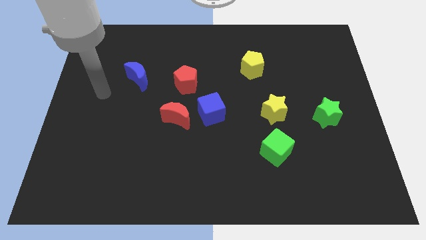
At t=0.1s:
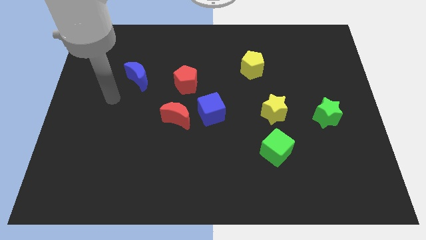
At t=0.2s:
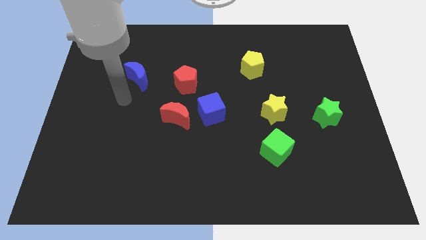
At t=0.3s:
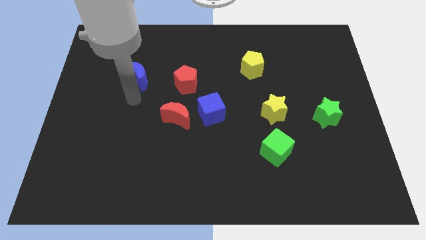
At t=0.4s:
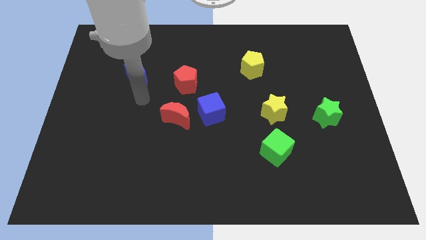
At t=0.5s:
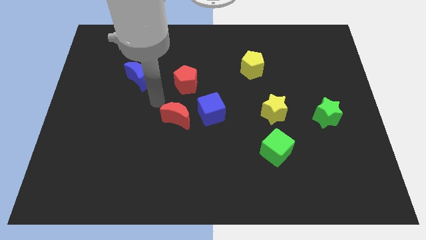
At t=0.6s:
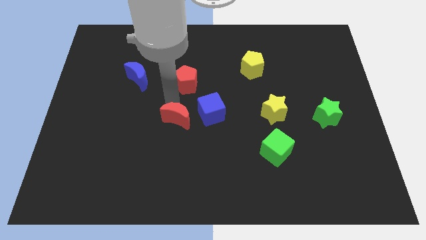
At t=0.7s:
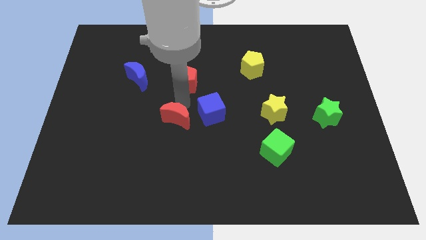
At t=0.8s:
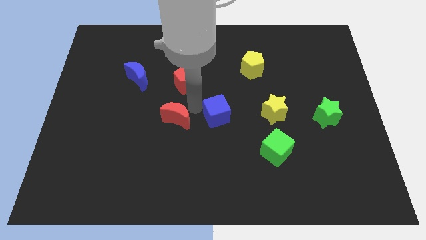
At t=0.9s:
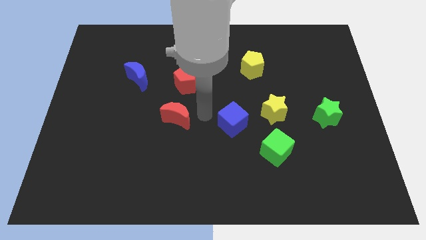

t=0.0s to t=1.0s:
move the red moon away from the blue cube

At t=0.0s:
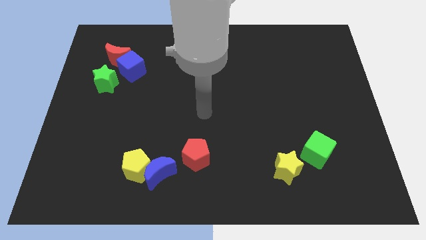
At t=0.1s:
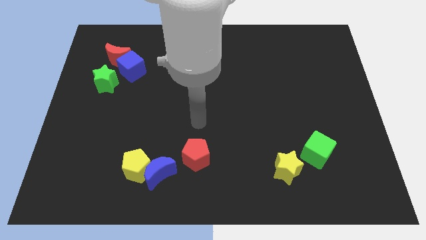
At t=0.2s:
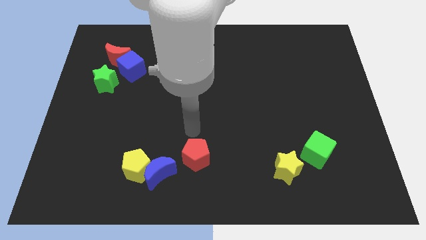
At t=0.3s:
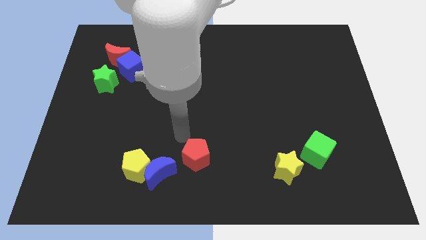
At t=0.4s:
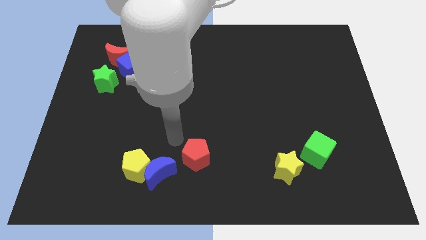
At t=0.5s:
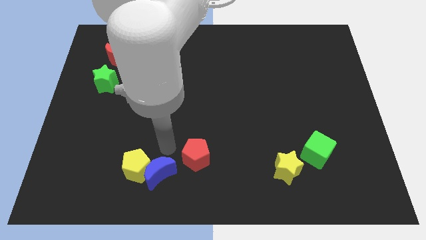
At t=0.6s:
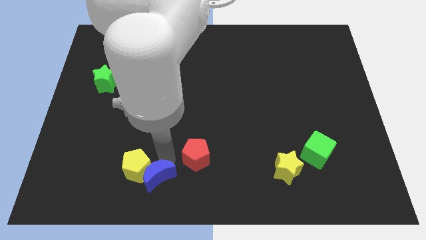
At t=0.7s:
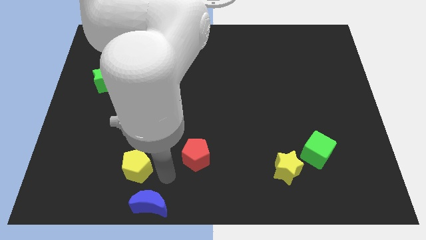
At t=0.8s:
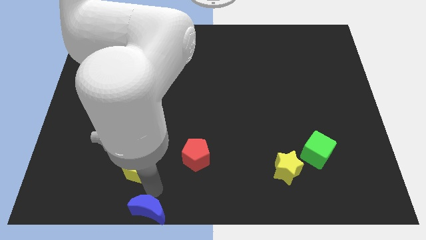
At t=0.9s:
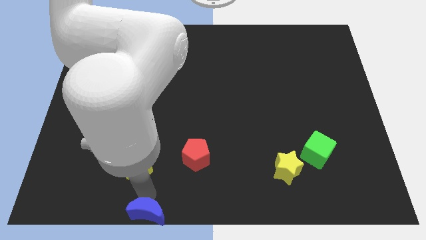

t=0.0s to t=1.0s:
separate the yellow pentagon from the blue moon

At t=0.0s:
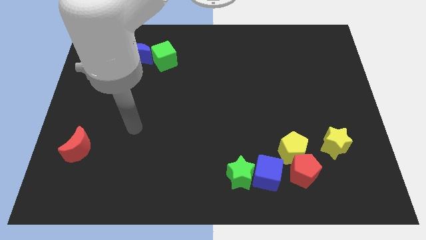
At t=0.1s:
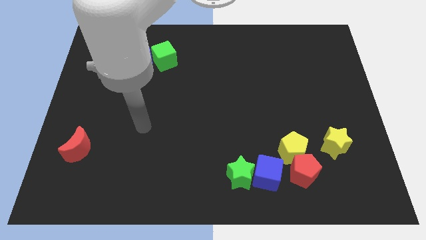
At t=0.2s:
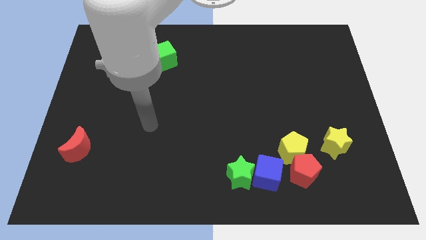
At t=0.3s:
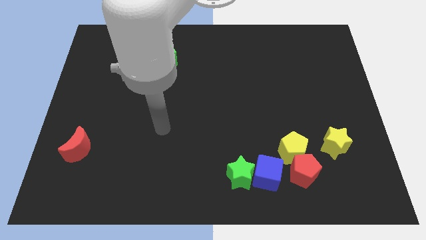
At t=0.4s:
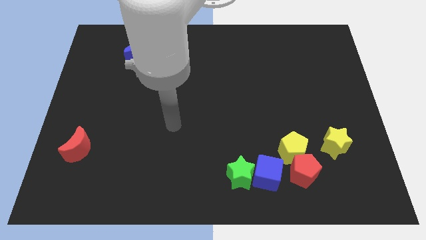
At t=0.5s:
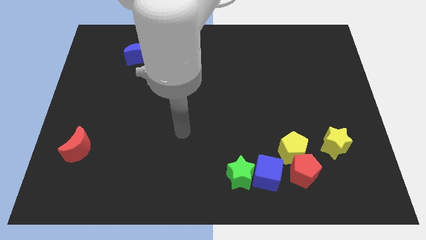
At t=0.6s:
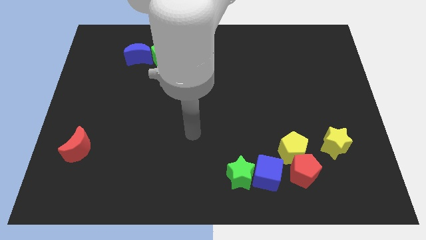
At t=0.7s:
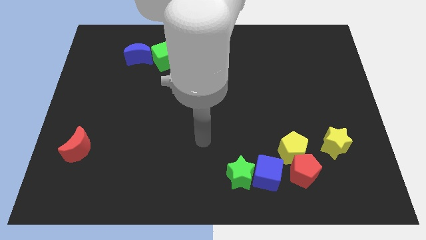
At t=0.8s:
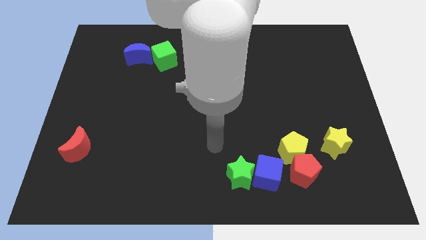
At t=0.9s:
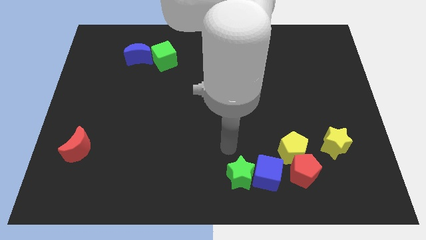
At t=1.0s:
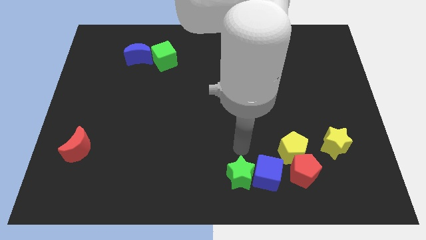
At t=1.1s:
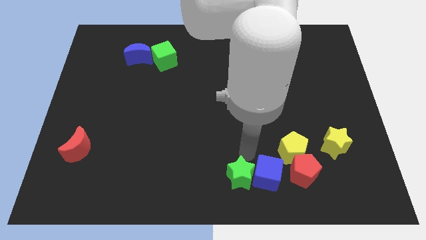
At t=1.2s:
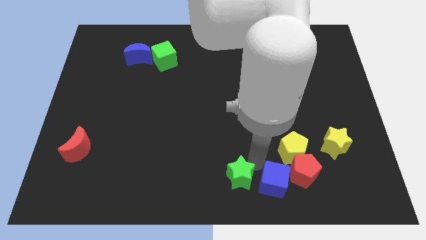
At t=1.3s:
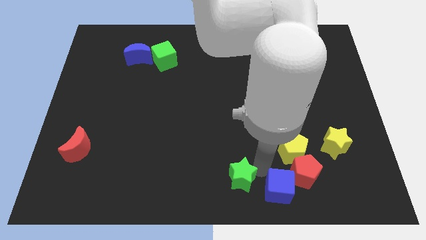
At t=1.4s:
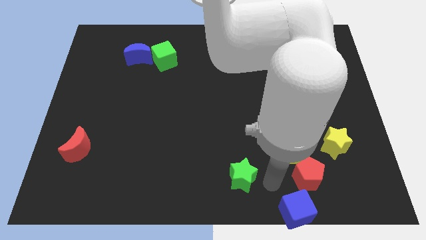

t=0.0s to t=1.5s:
move the green star away from the blue cube

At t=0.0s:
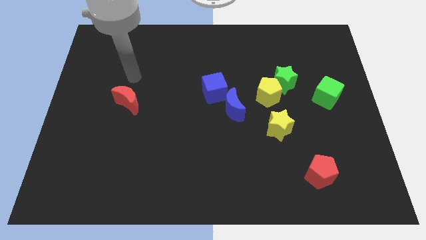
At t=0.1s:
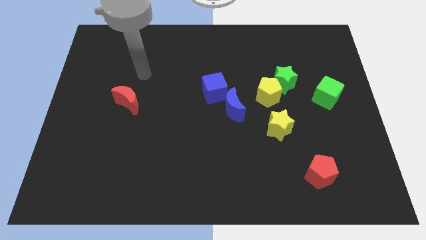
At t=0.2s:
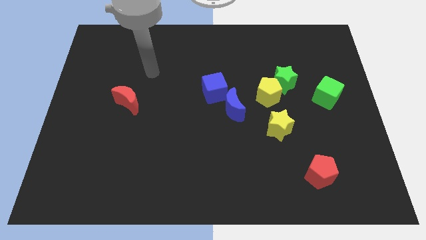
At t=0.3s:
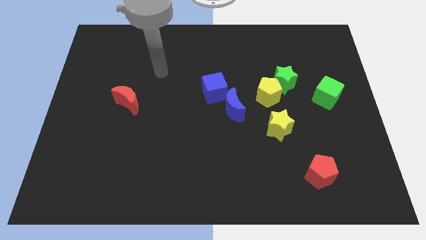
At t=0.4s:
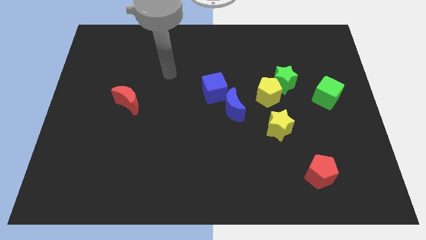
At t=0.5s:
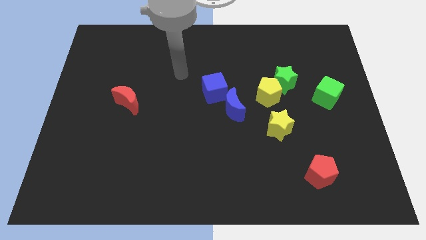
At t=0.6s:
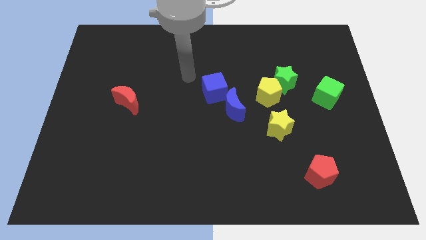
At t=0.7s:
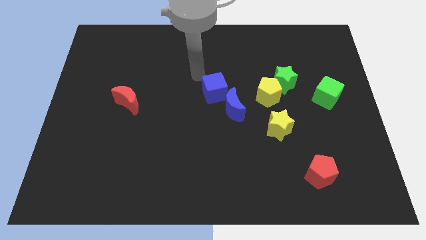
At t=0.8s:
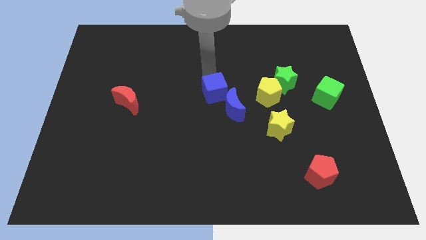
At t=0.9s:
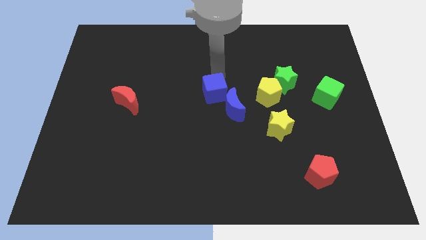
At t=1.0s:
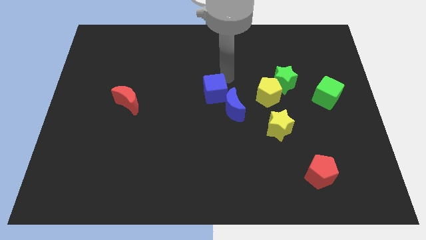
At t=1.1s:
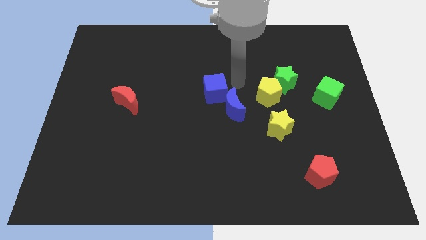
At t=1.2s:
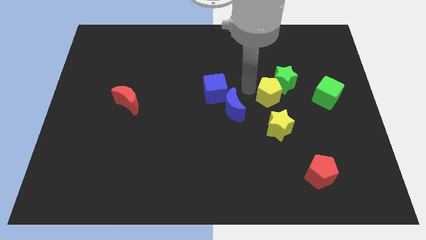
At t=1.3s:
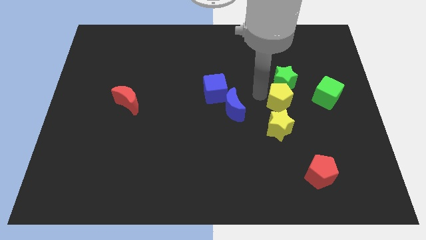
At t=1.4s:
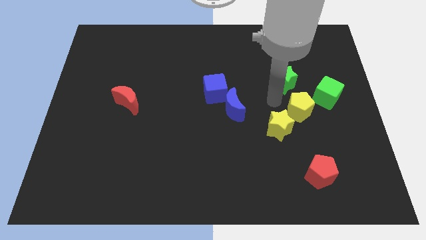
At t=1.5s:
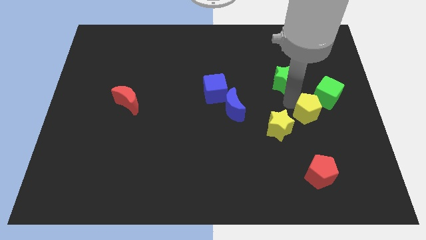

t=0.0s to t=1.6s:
move the green star away from the yellow pentagon

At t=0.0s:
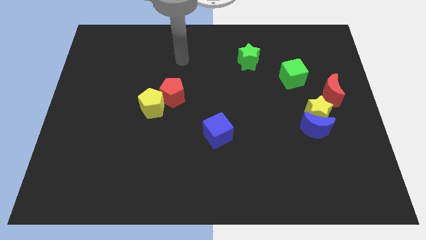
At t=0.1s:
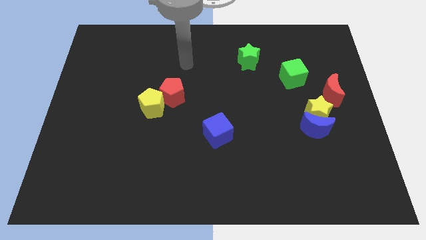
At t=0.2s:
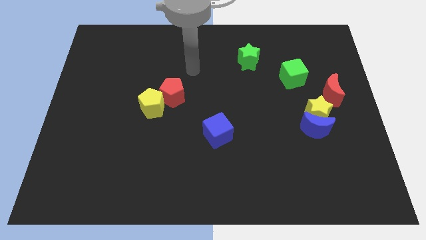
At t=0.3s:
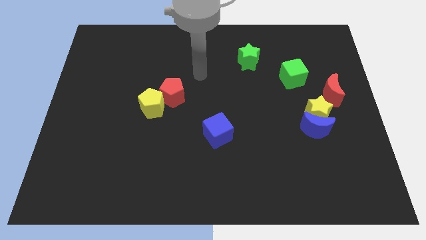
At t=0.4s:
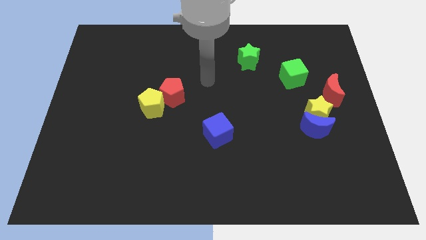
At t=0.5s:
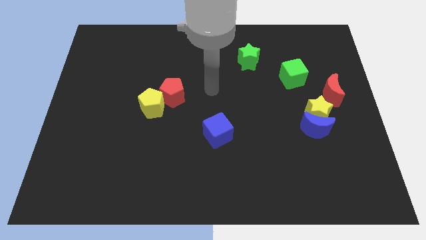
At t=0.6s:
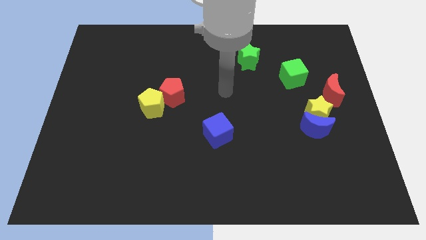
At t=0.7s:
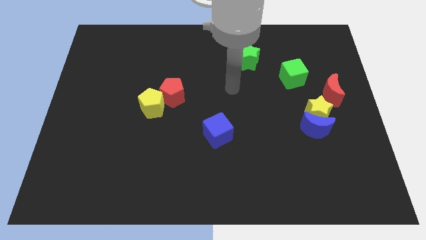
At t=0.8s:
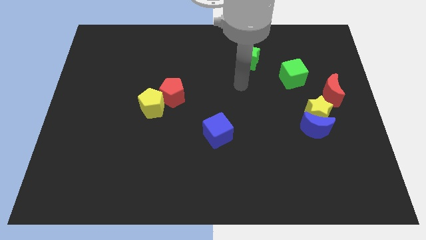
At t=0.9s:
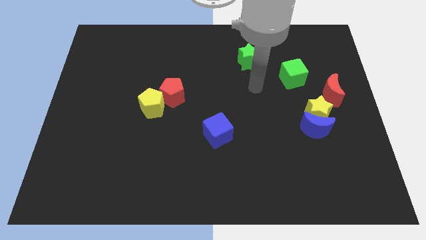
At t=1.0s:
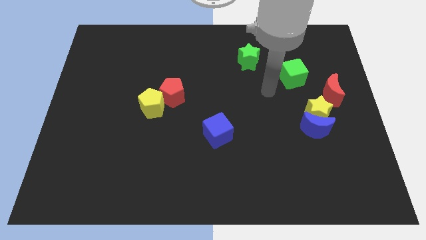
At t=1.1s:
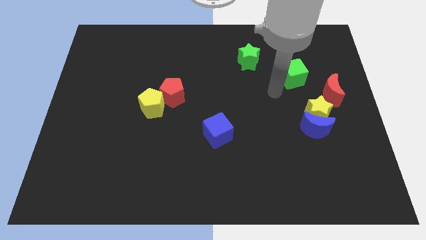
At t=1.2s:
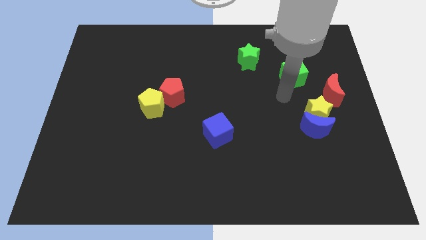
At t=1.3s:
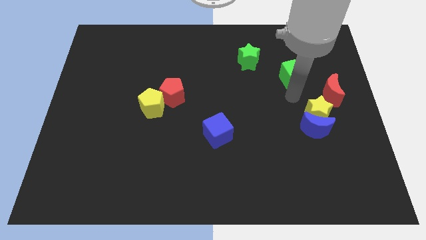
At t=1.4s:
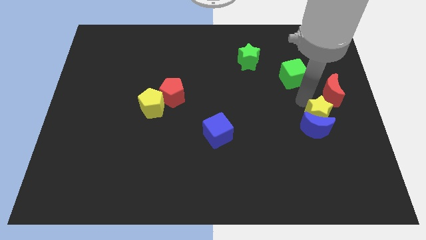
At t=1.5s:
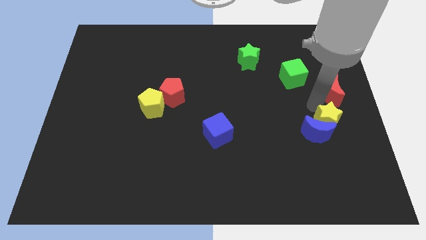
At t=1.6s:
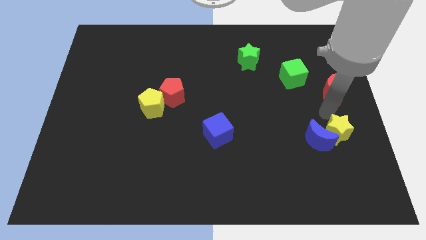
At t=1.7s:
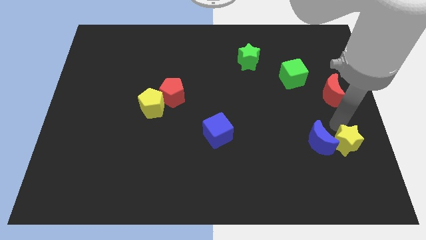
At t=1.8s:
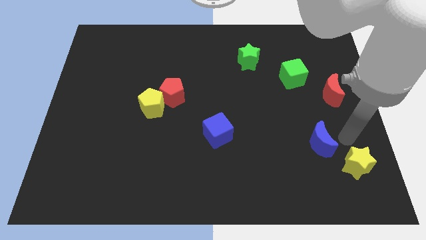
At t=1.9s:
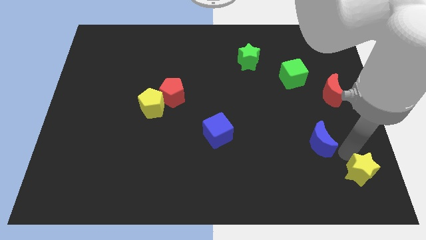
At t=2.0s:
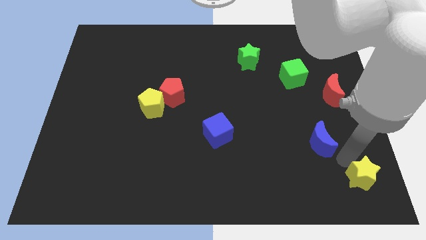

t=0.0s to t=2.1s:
separate the blue moon from the yellow star

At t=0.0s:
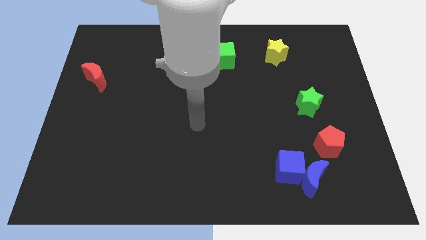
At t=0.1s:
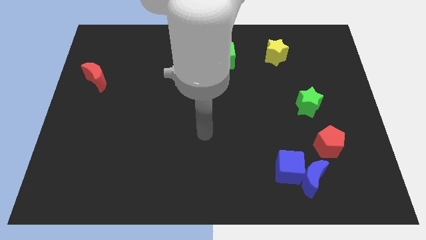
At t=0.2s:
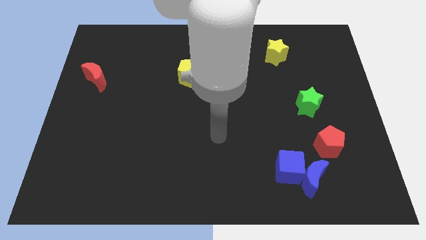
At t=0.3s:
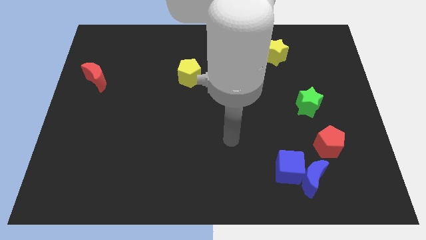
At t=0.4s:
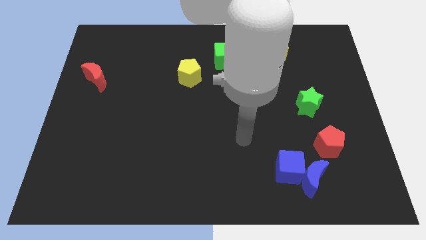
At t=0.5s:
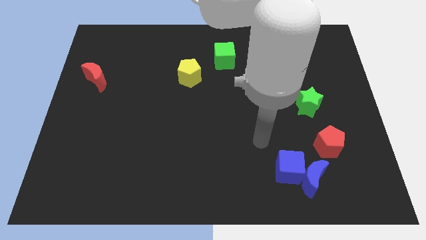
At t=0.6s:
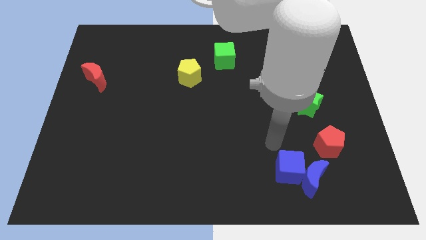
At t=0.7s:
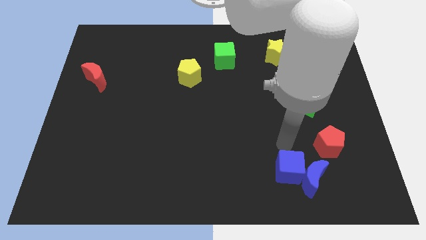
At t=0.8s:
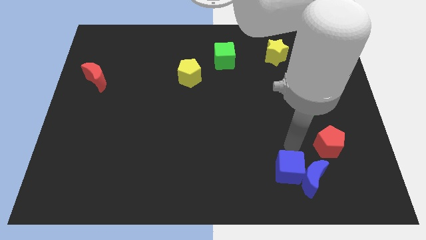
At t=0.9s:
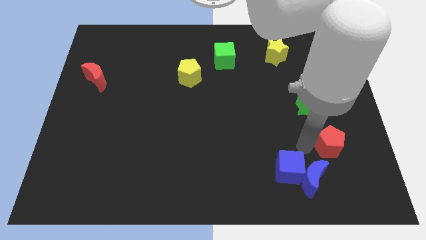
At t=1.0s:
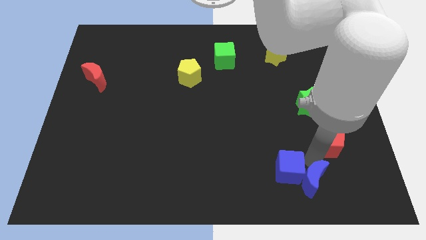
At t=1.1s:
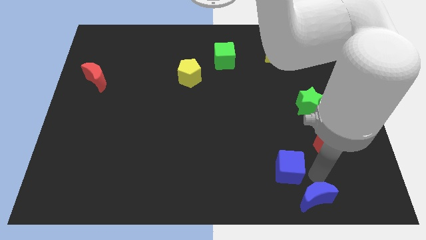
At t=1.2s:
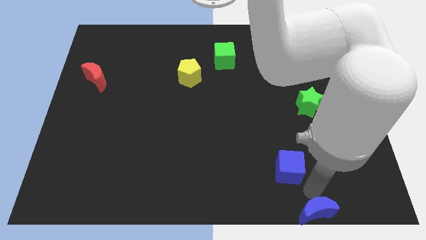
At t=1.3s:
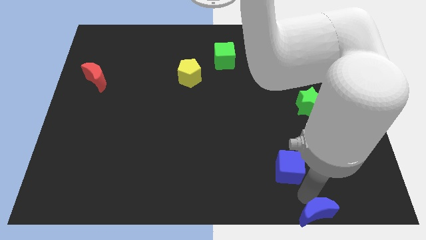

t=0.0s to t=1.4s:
move the blue cube away from the blue moon

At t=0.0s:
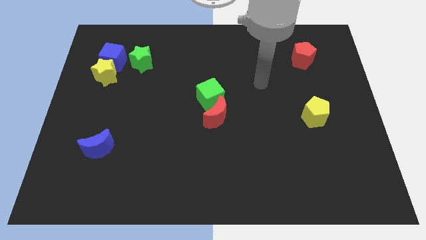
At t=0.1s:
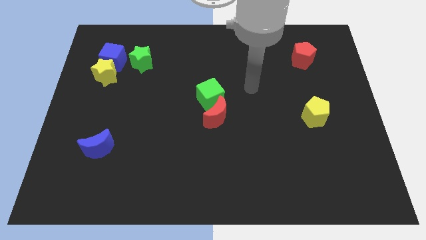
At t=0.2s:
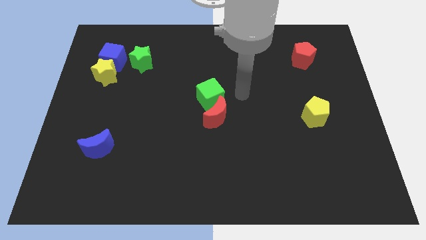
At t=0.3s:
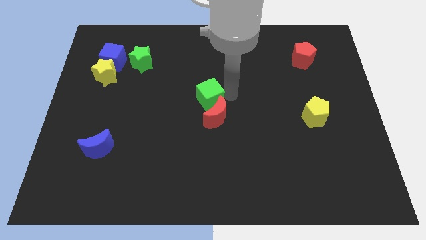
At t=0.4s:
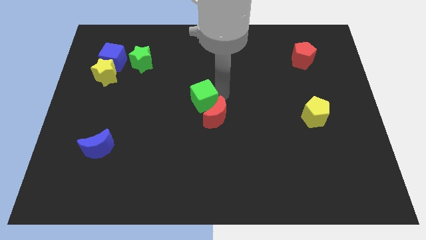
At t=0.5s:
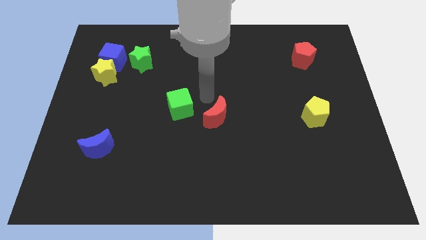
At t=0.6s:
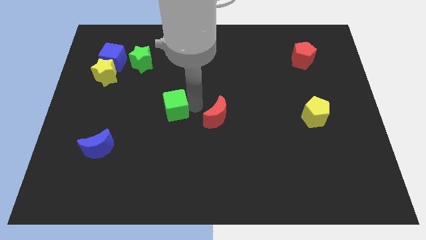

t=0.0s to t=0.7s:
separate the red moon from the green cube
